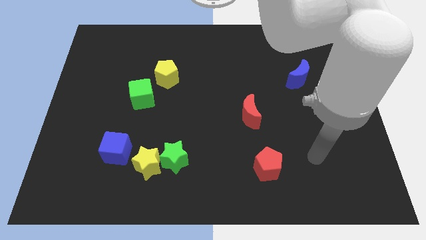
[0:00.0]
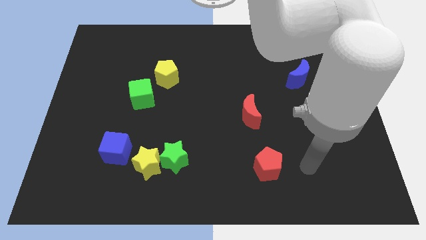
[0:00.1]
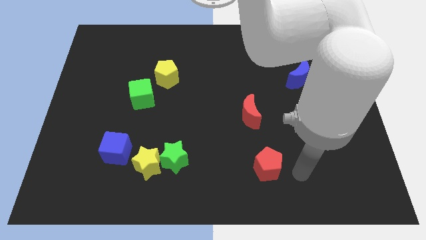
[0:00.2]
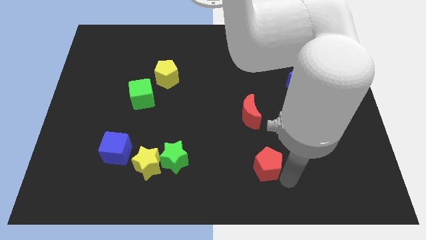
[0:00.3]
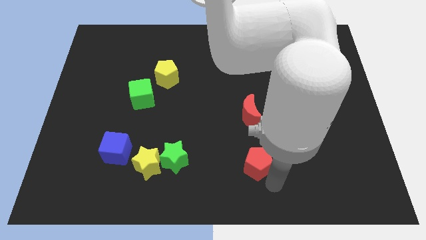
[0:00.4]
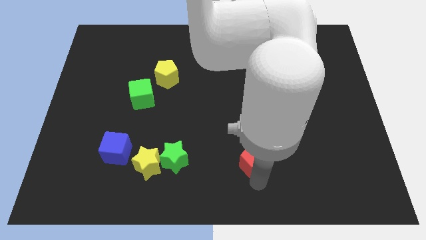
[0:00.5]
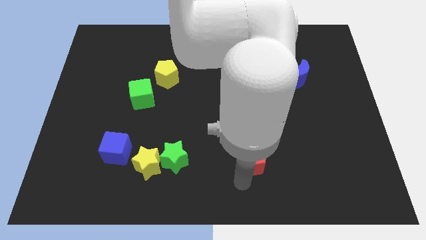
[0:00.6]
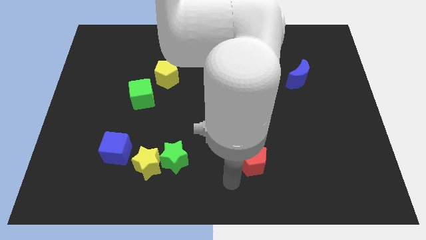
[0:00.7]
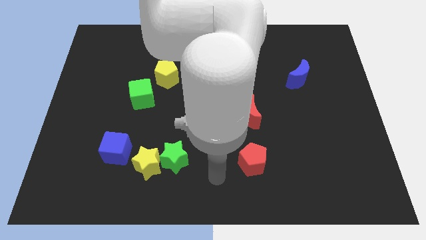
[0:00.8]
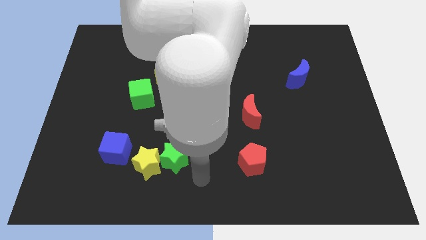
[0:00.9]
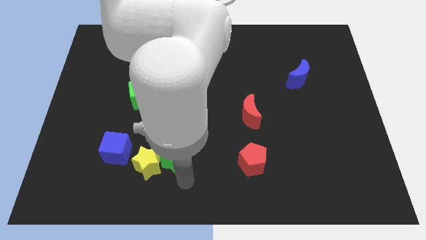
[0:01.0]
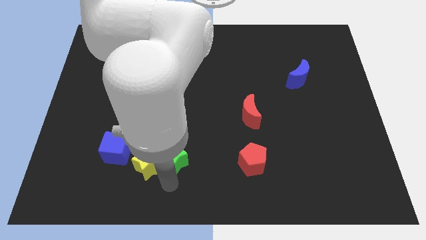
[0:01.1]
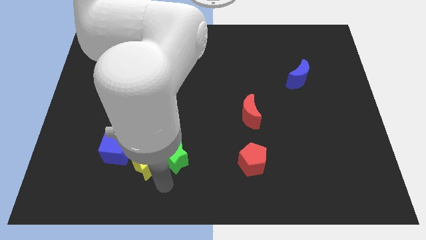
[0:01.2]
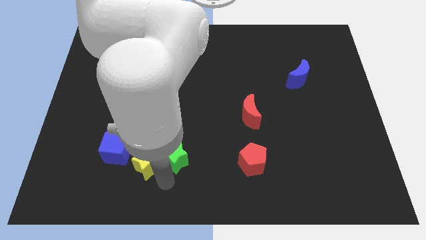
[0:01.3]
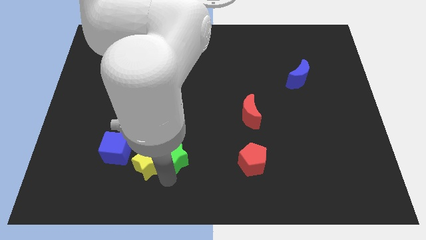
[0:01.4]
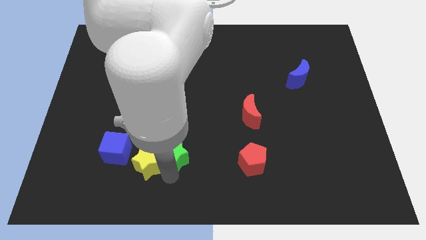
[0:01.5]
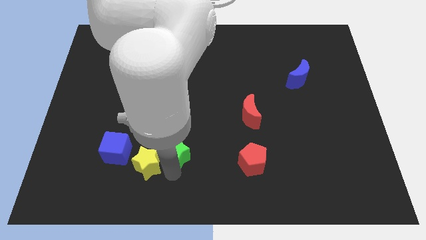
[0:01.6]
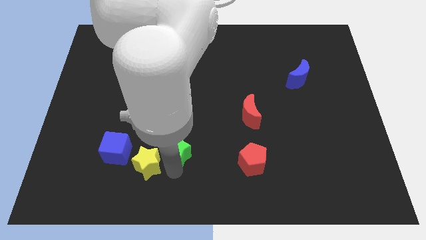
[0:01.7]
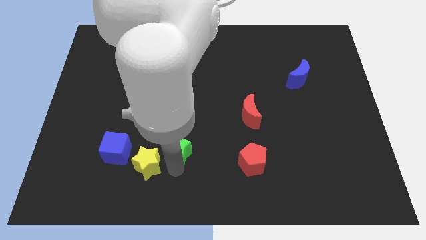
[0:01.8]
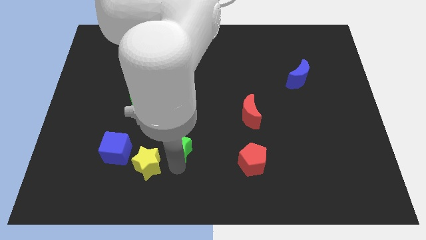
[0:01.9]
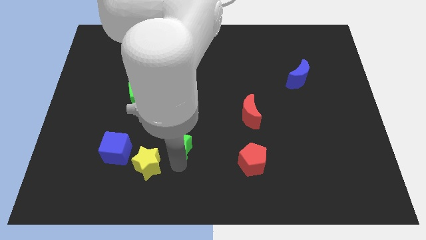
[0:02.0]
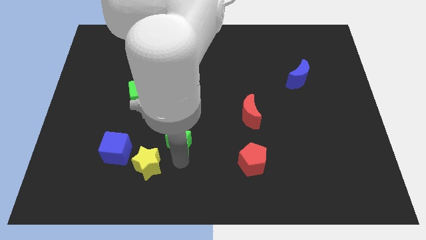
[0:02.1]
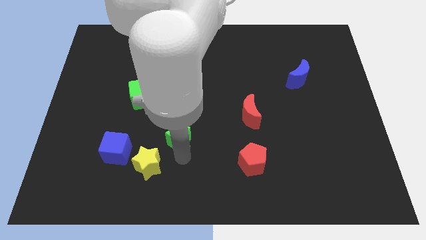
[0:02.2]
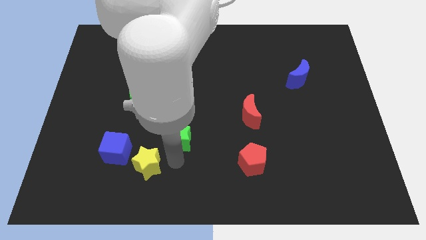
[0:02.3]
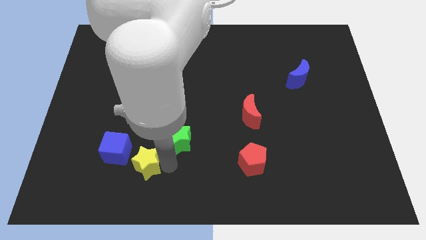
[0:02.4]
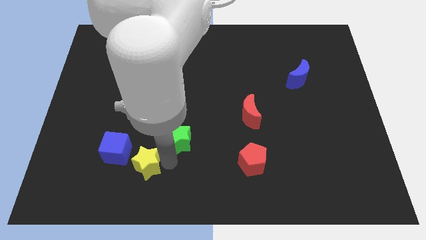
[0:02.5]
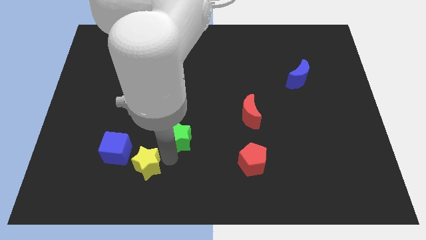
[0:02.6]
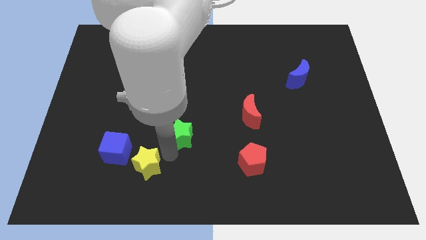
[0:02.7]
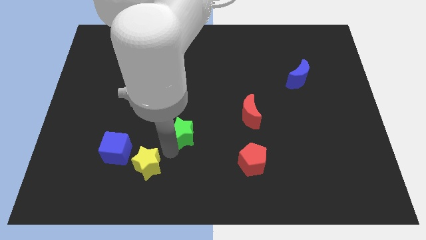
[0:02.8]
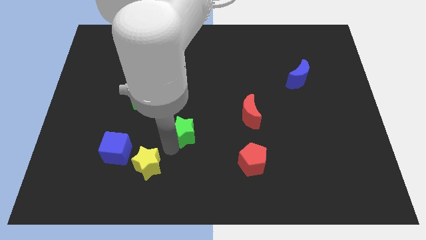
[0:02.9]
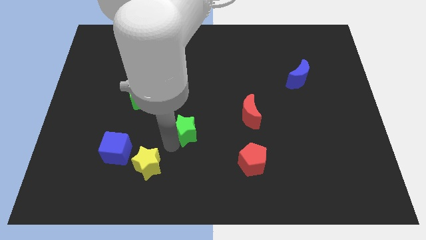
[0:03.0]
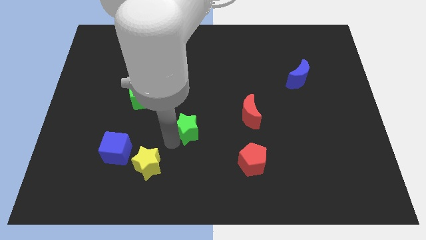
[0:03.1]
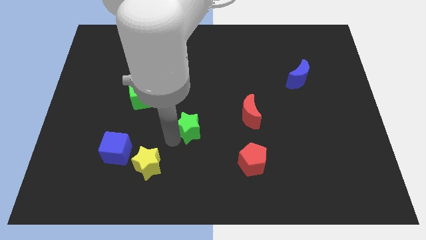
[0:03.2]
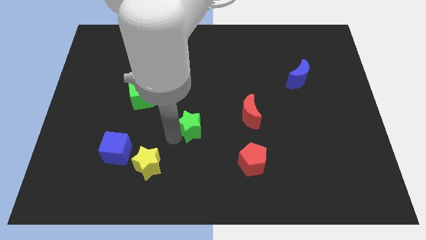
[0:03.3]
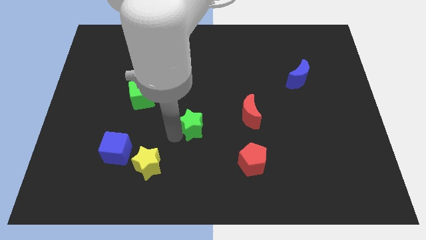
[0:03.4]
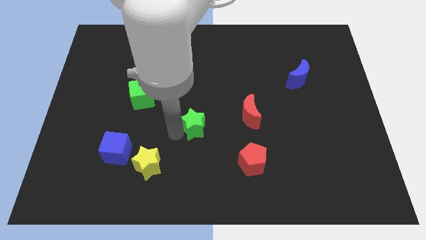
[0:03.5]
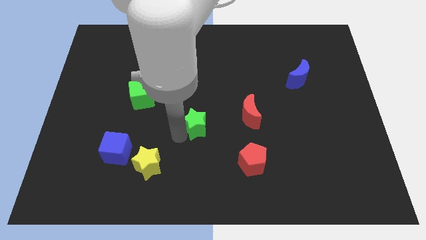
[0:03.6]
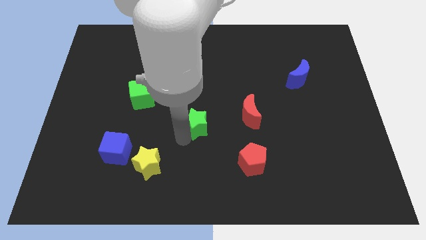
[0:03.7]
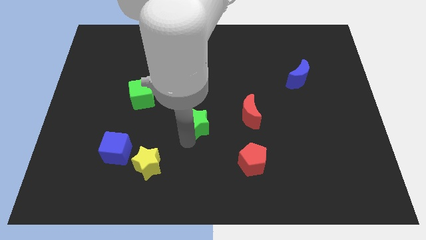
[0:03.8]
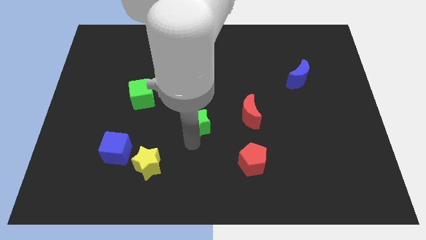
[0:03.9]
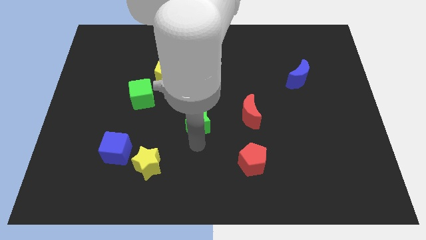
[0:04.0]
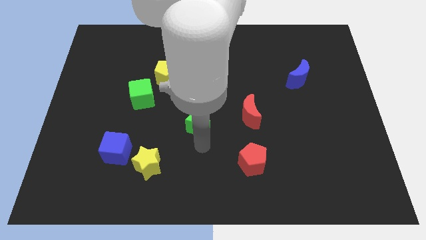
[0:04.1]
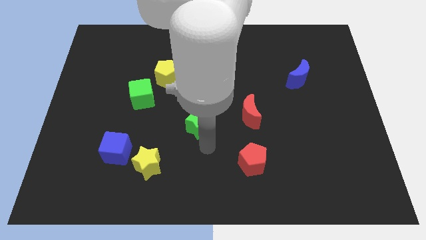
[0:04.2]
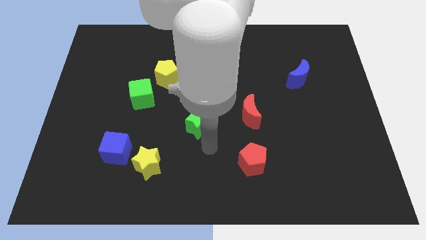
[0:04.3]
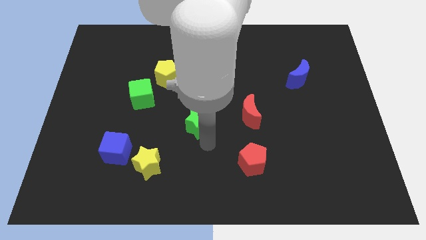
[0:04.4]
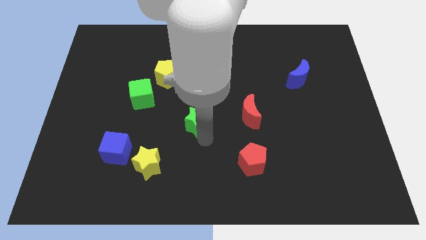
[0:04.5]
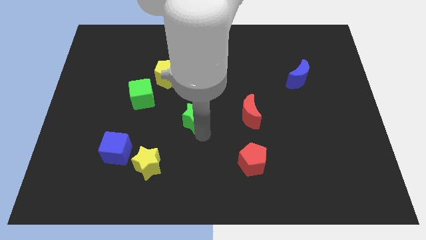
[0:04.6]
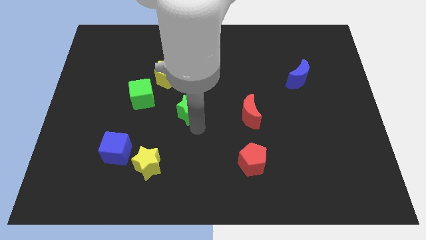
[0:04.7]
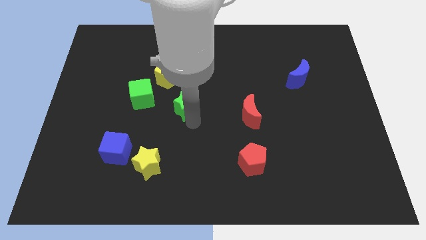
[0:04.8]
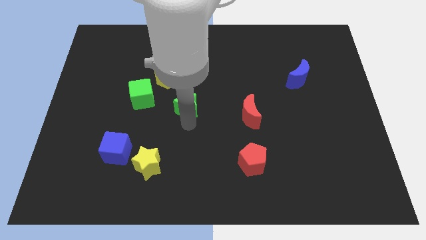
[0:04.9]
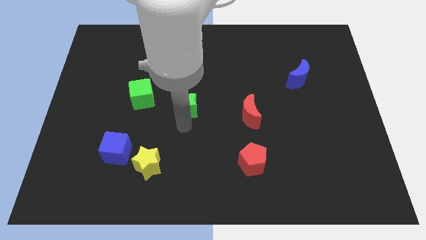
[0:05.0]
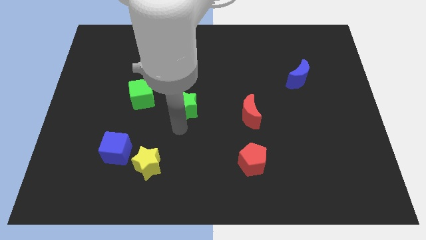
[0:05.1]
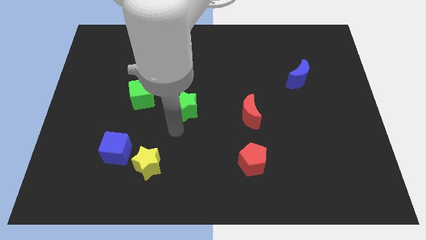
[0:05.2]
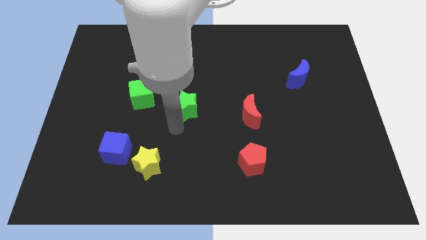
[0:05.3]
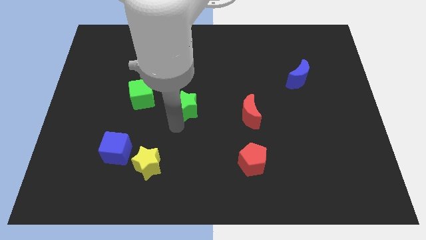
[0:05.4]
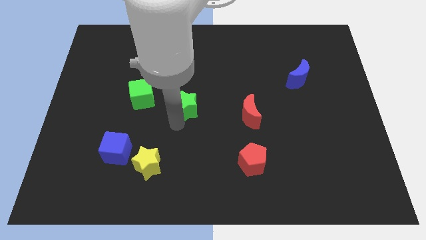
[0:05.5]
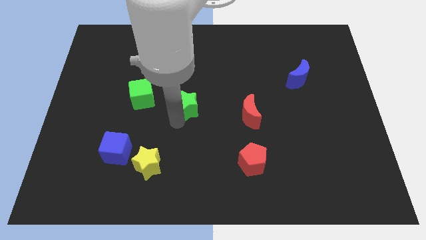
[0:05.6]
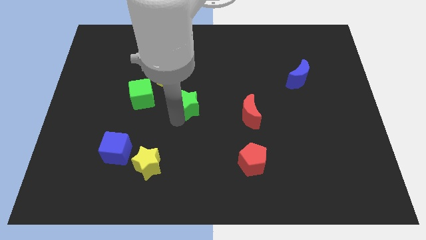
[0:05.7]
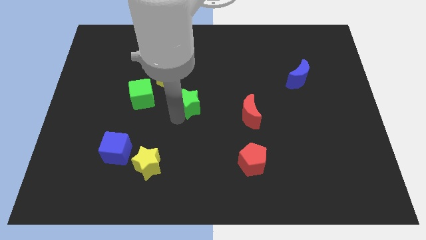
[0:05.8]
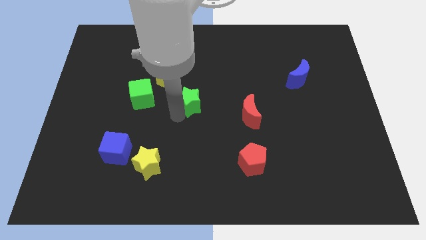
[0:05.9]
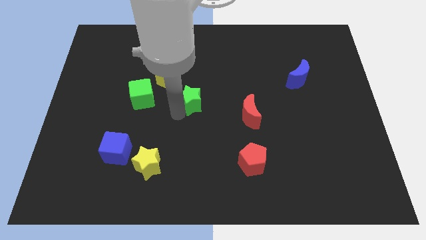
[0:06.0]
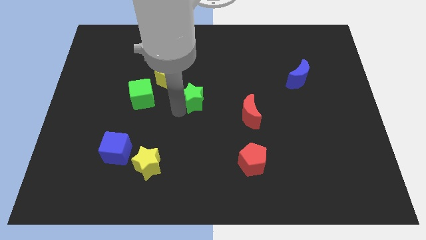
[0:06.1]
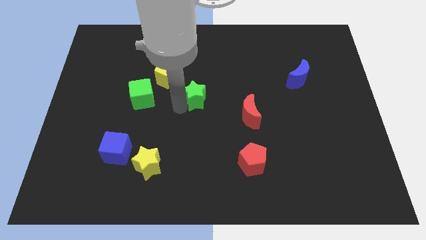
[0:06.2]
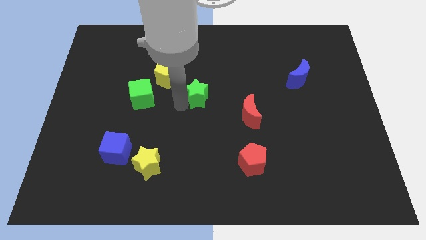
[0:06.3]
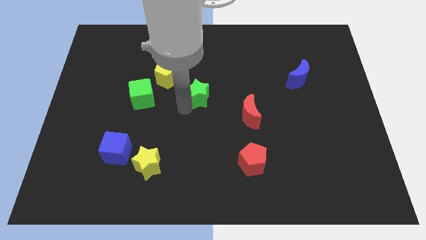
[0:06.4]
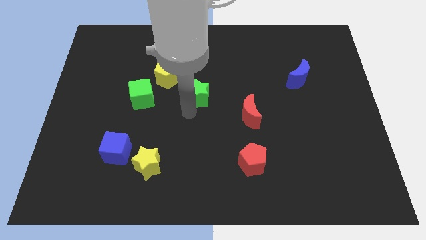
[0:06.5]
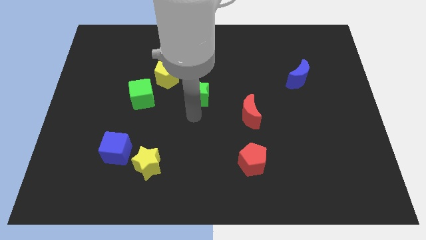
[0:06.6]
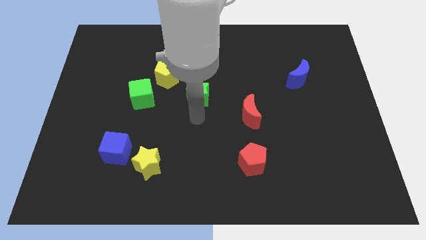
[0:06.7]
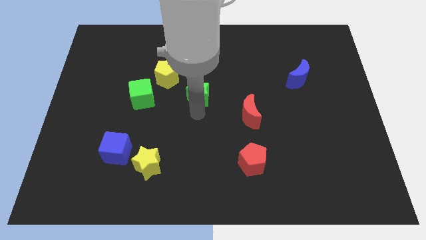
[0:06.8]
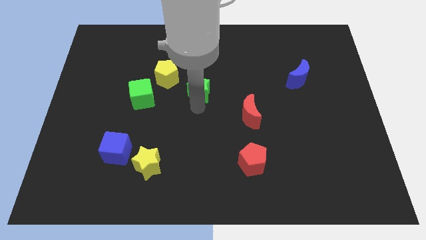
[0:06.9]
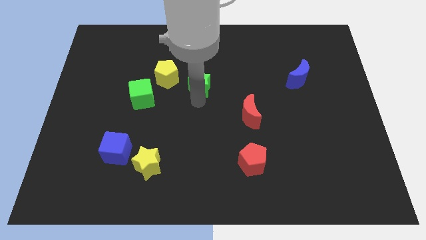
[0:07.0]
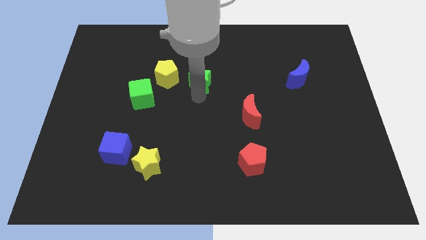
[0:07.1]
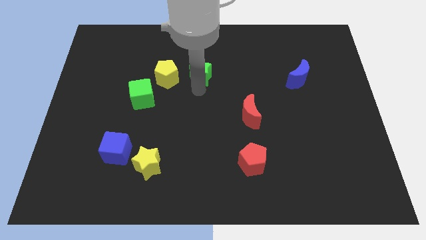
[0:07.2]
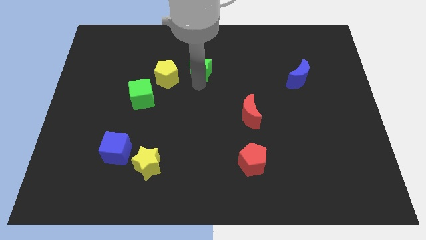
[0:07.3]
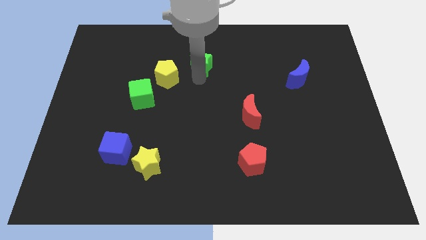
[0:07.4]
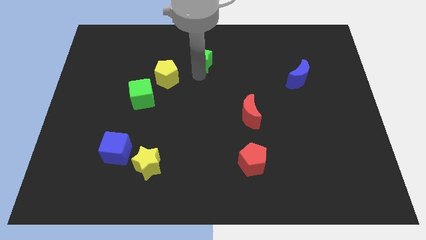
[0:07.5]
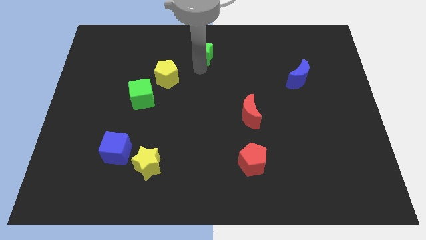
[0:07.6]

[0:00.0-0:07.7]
put the green star to the top
